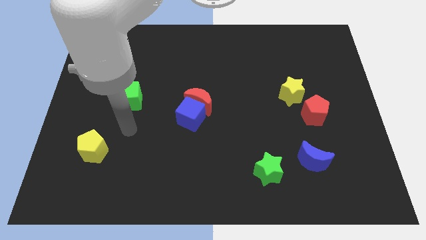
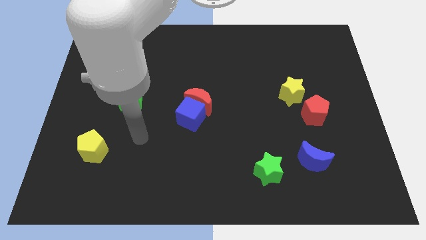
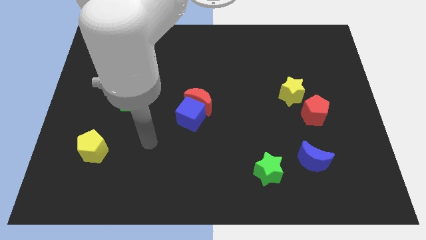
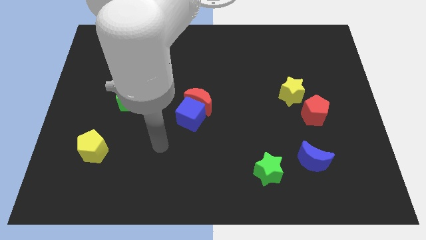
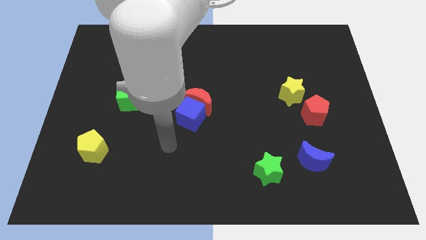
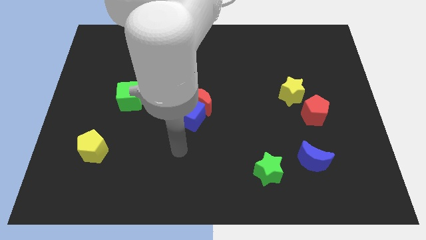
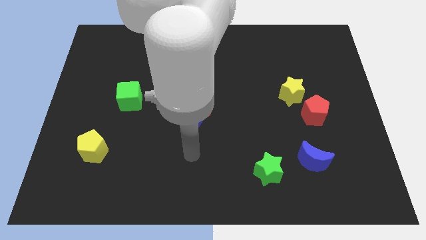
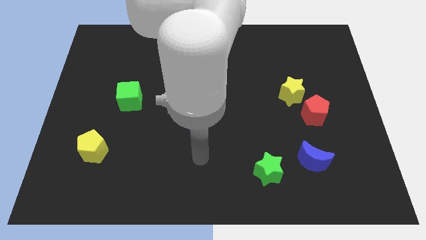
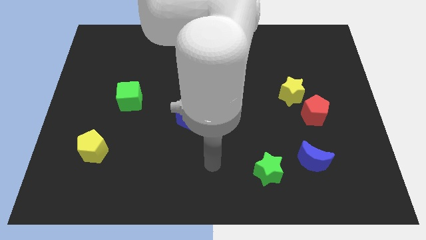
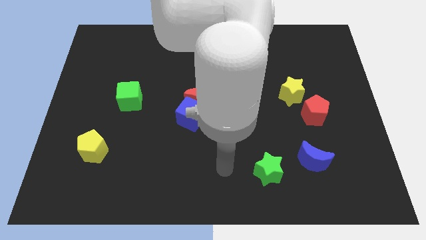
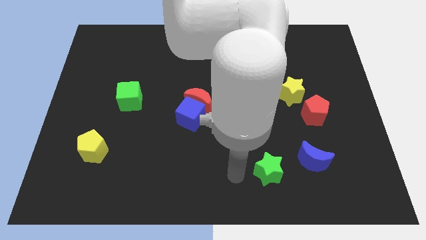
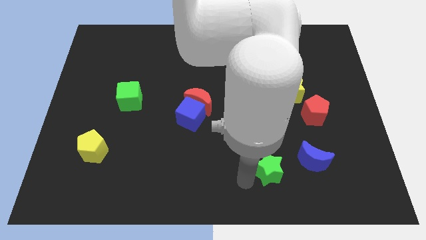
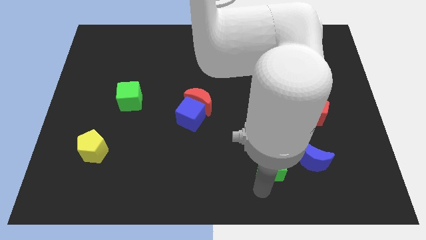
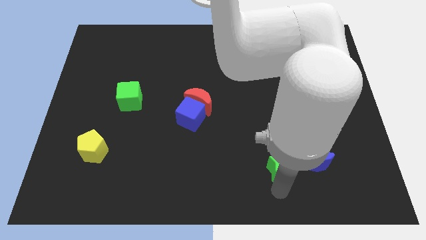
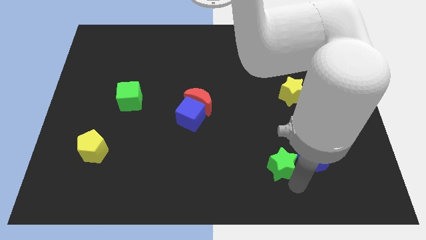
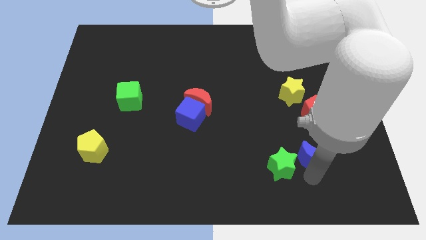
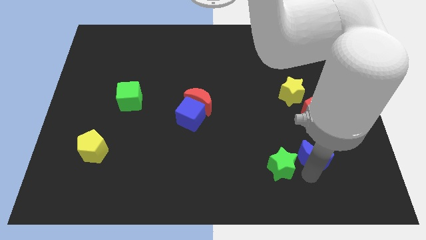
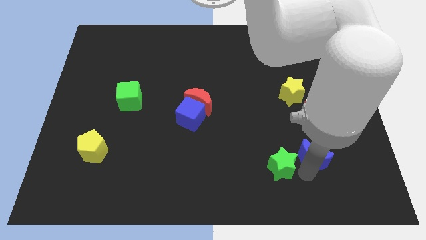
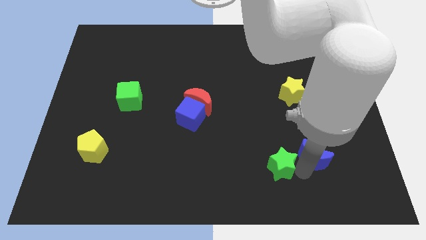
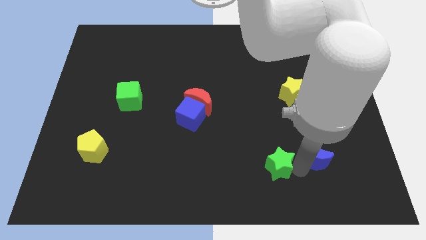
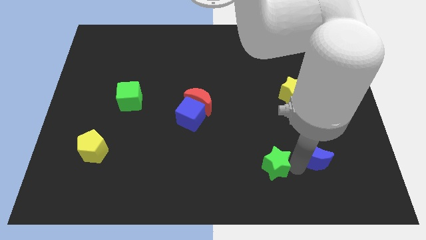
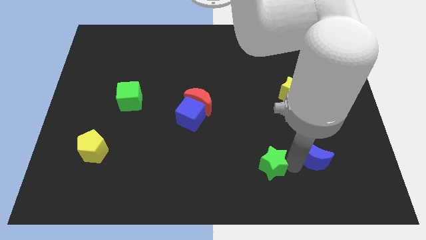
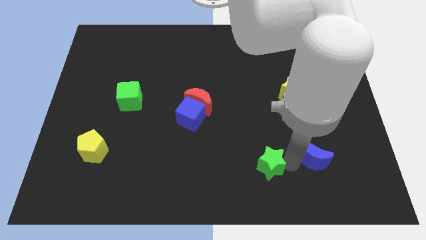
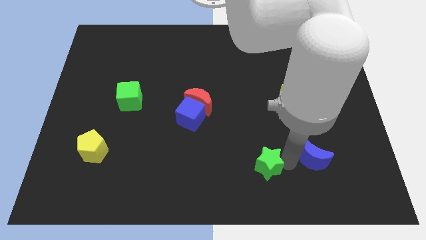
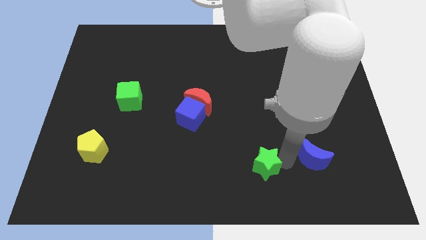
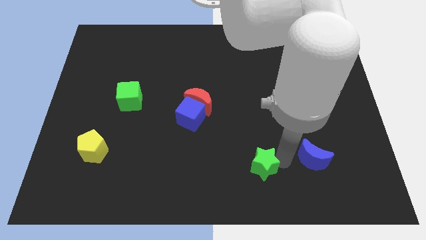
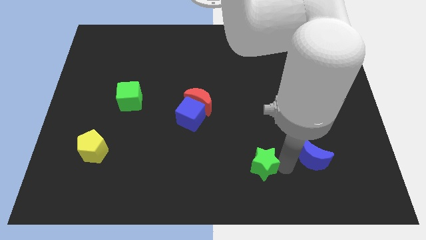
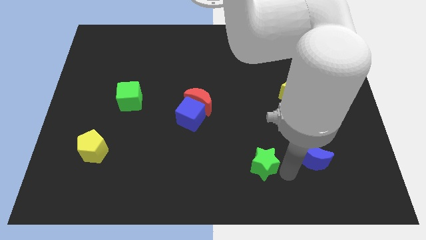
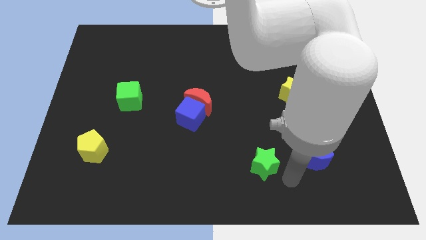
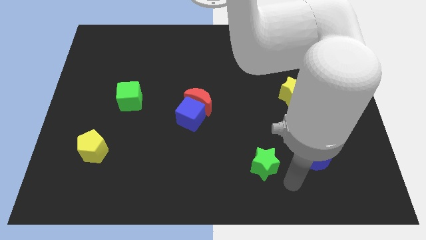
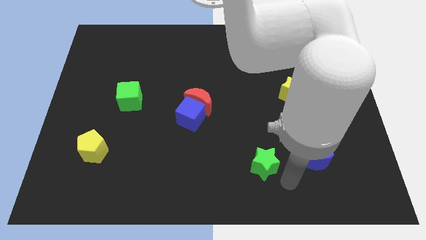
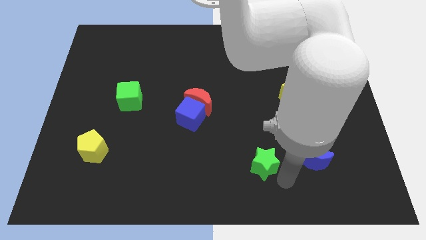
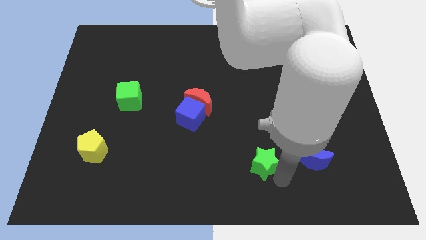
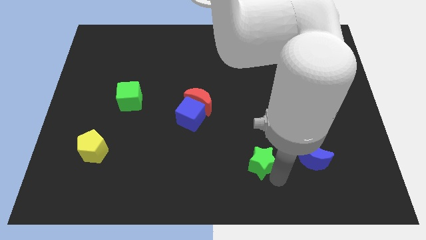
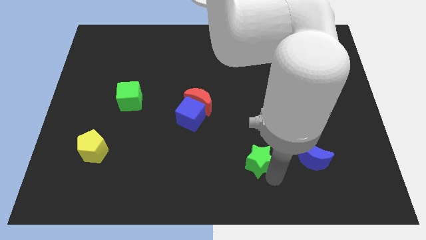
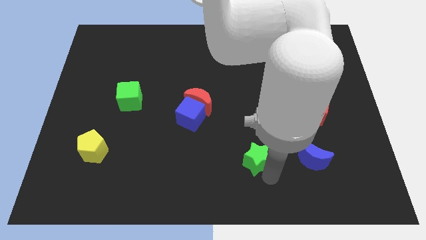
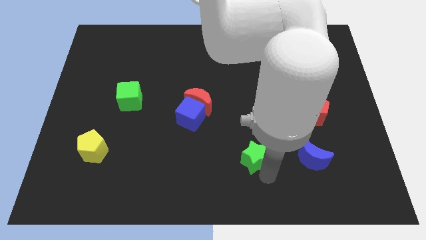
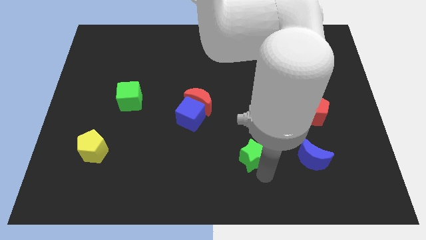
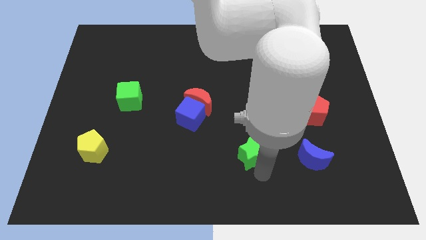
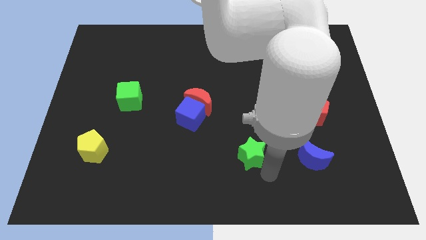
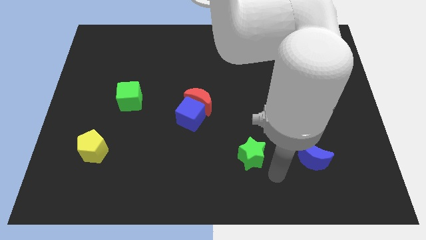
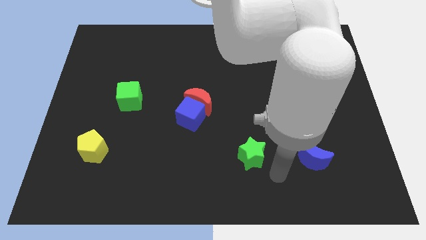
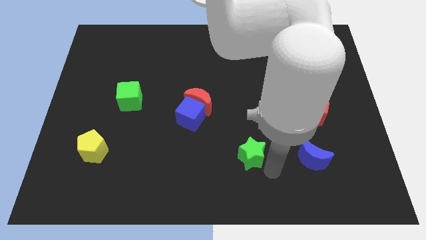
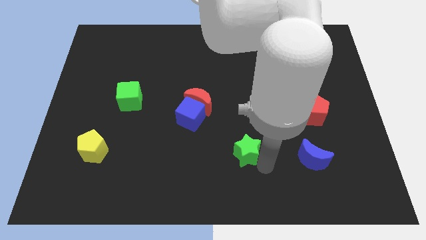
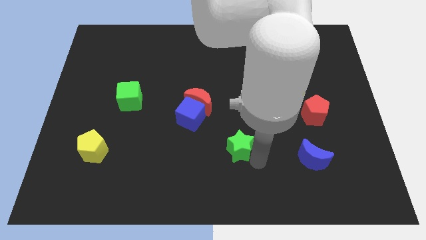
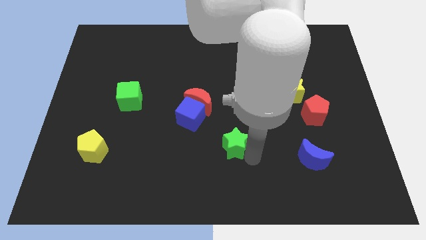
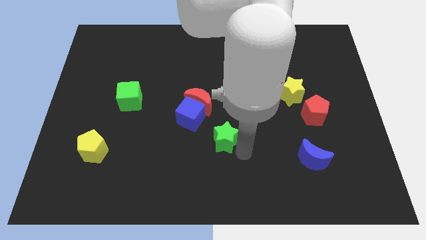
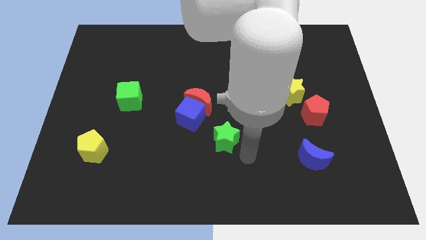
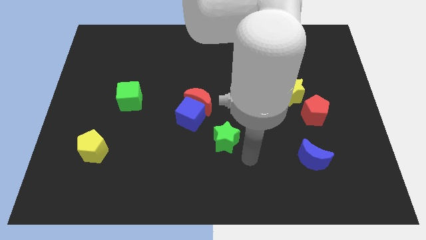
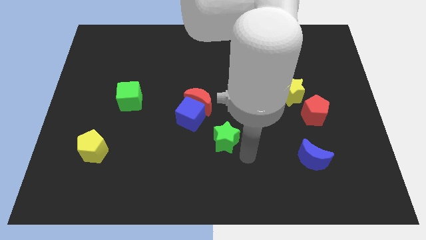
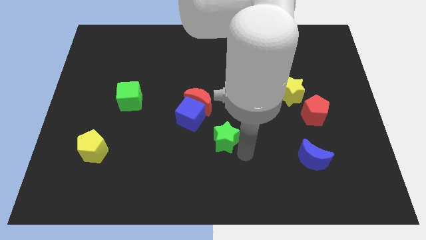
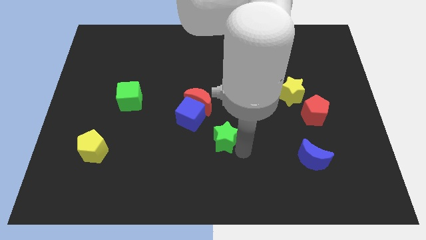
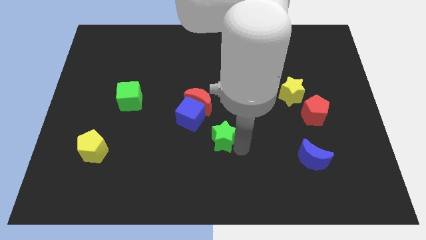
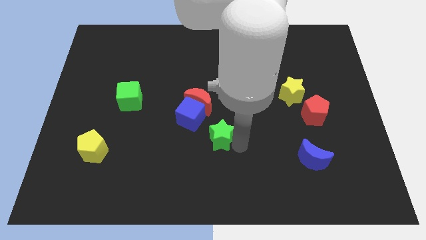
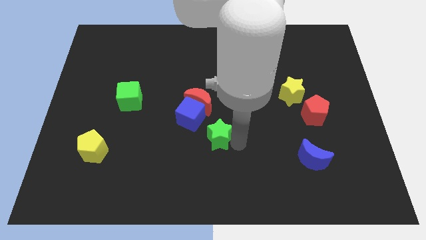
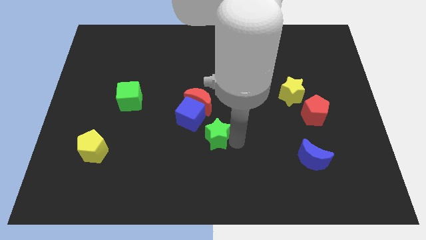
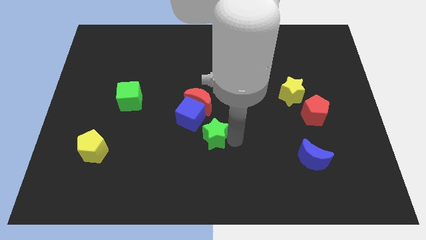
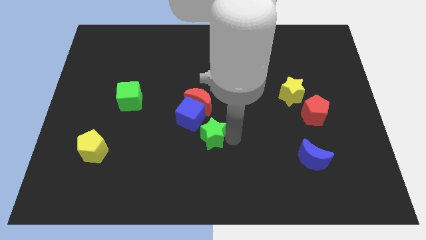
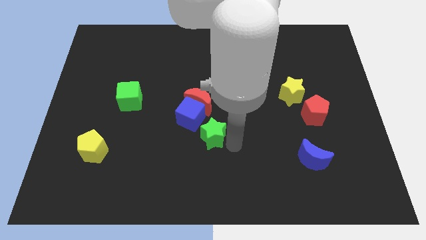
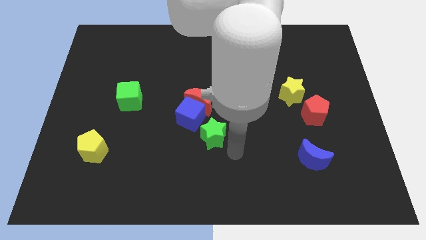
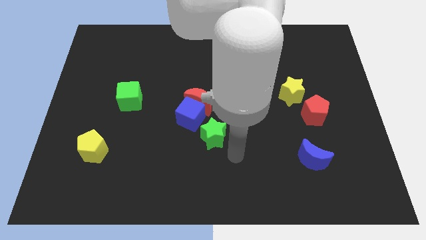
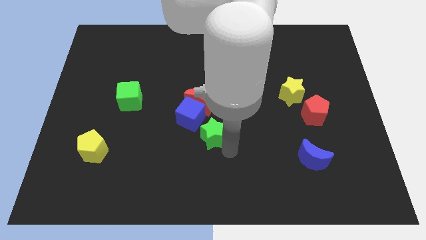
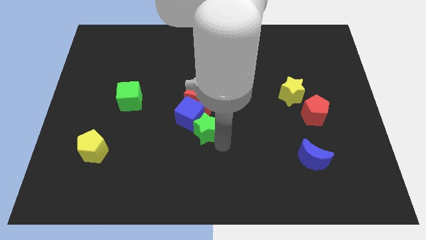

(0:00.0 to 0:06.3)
push the green star next to the blue cube

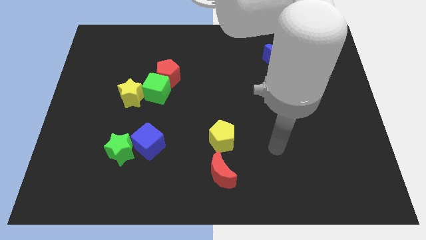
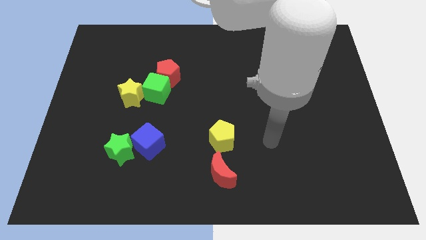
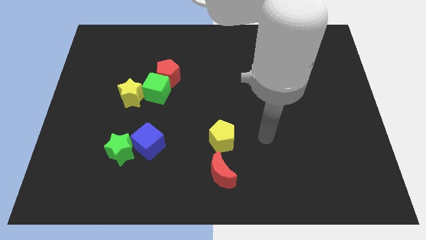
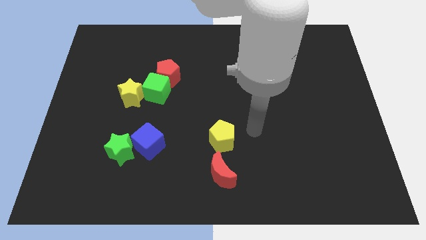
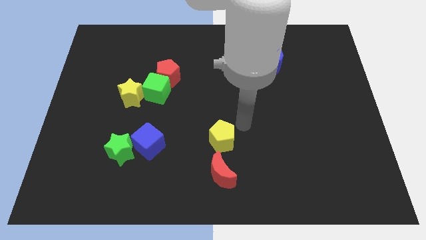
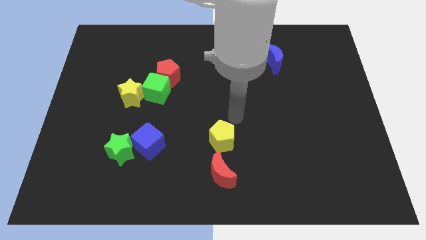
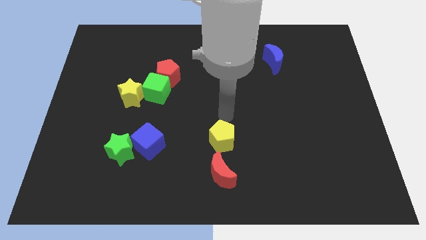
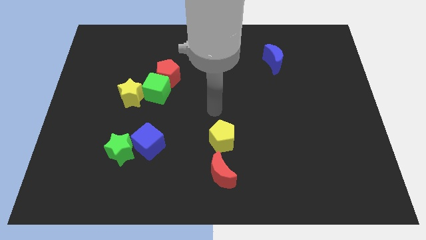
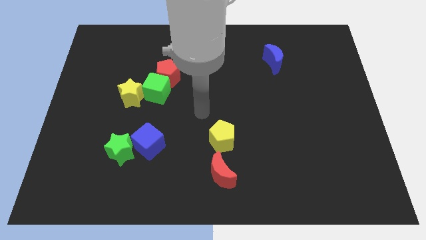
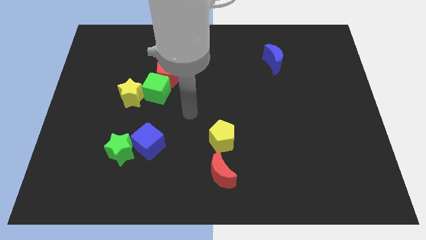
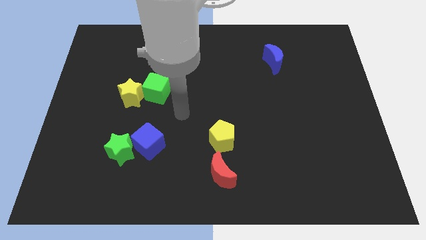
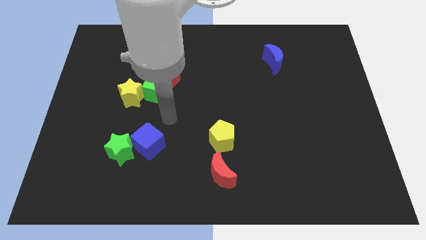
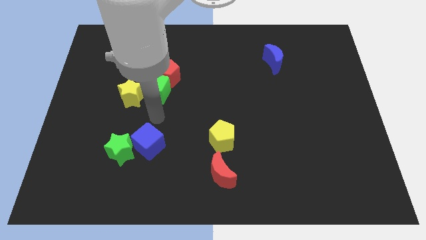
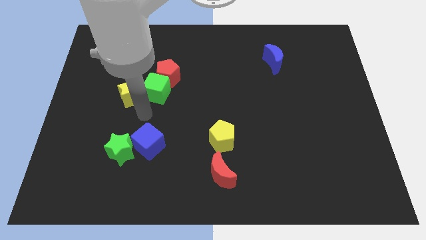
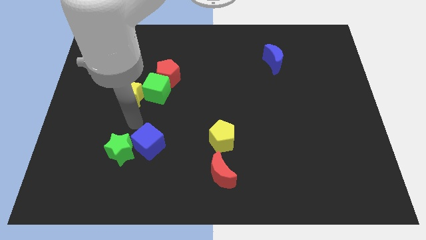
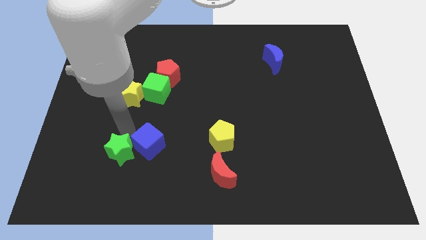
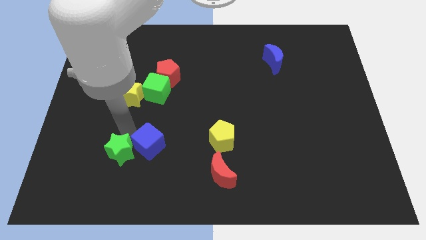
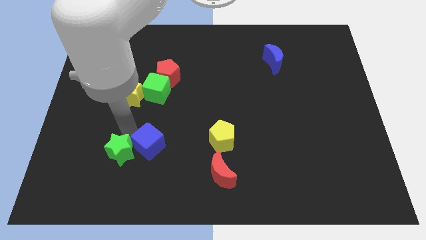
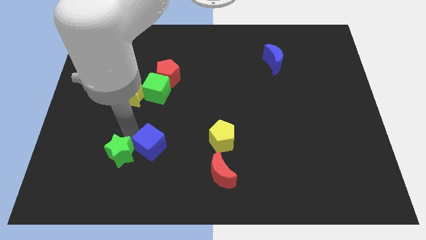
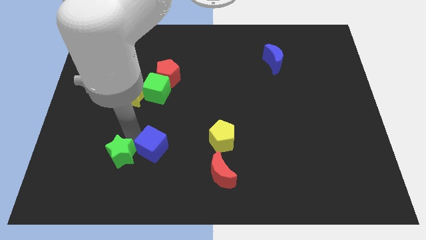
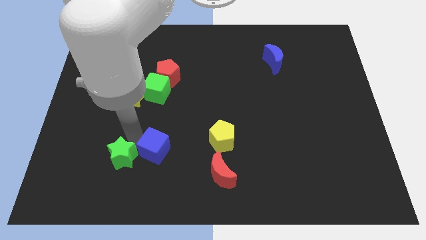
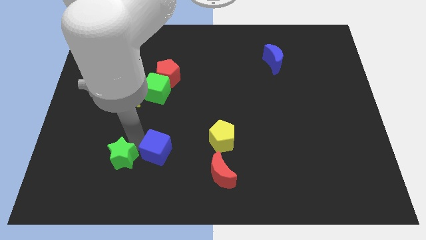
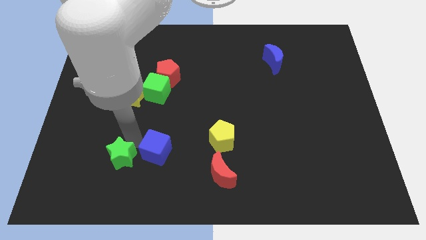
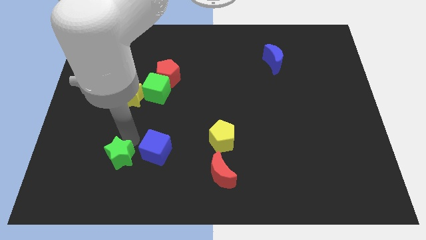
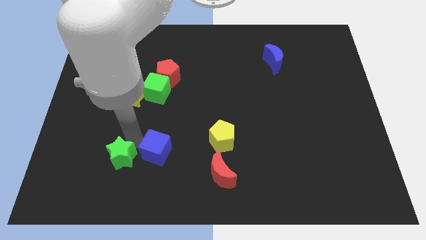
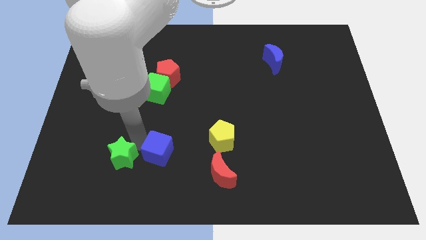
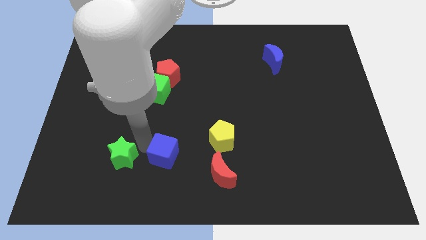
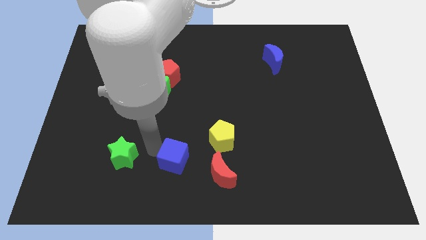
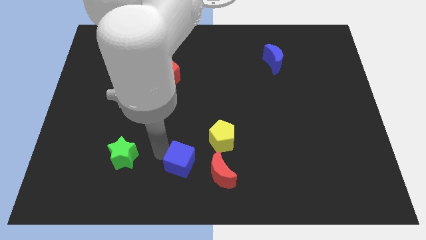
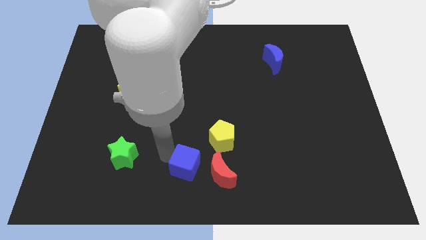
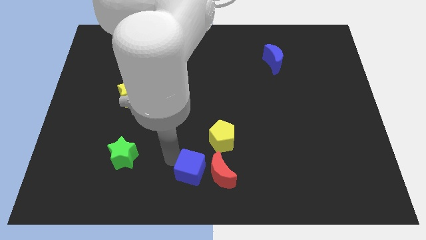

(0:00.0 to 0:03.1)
push the blue cube towards the red moon
